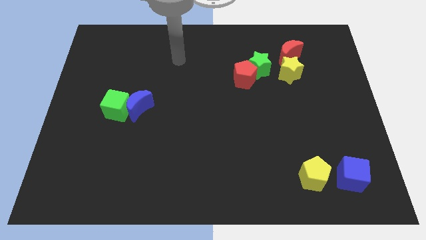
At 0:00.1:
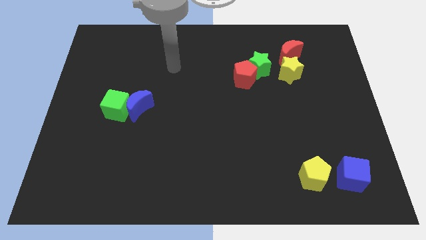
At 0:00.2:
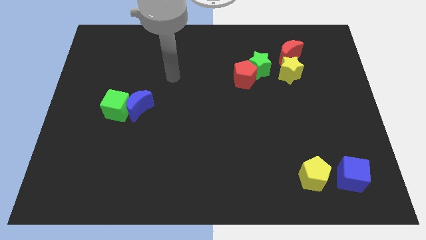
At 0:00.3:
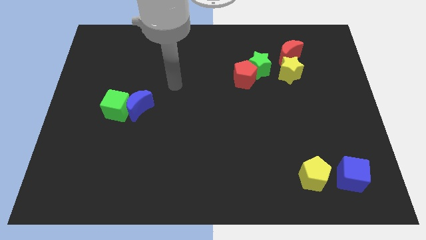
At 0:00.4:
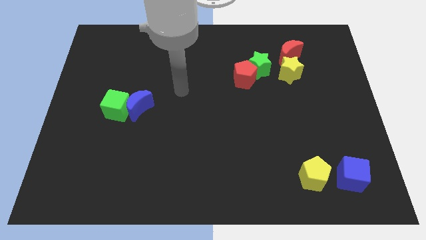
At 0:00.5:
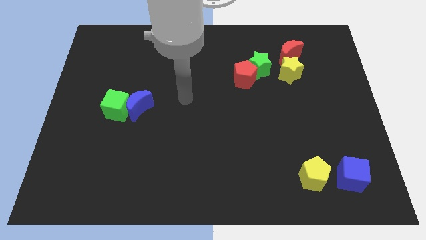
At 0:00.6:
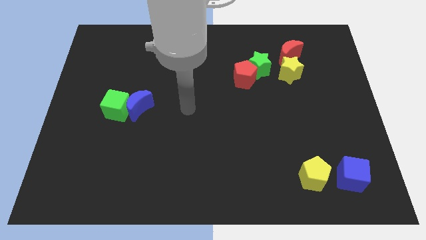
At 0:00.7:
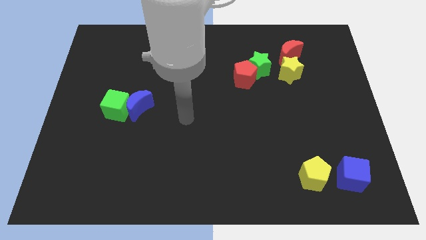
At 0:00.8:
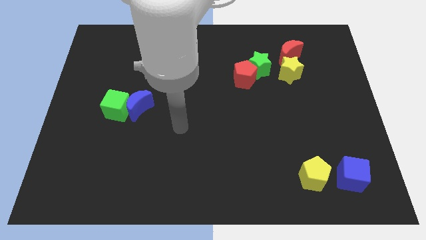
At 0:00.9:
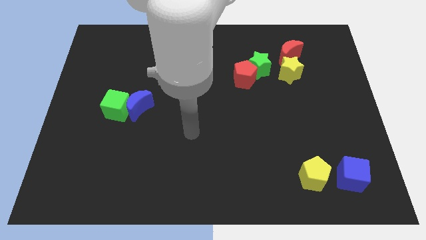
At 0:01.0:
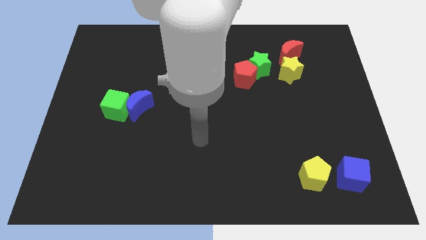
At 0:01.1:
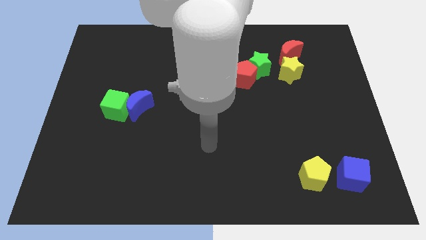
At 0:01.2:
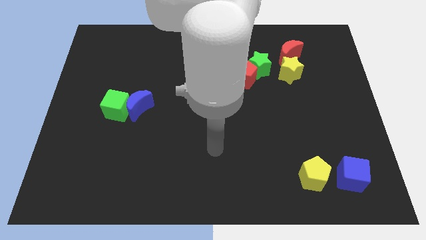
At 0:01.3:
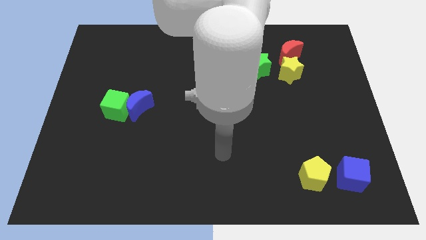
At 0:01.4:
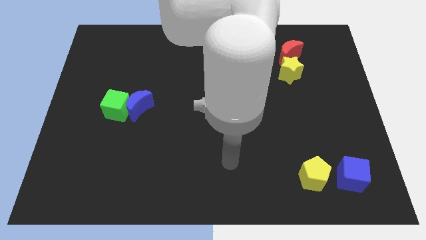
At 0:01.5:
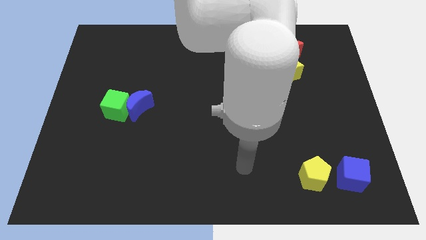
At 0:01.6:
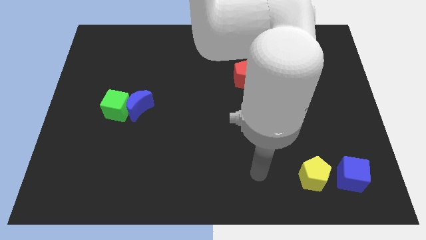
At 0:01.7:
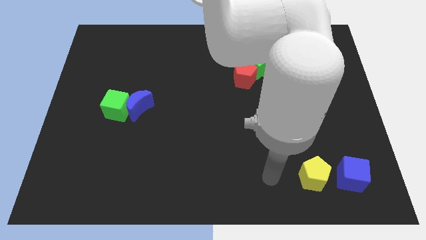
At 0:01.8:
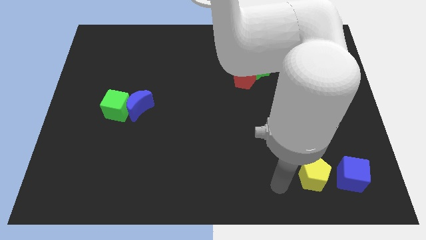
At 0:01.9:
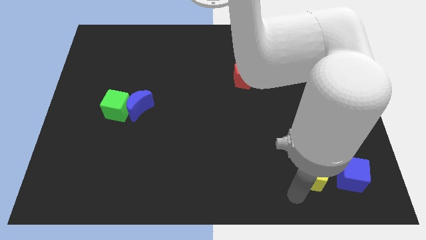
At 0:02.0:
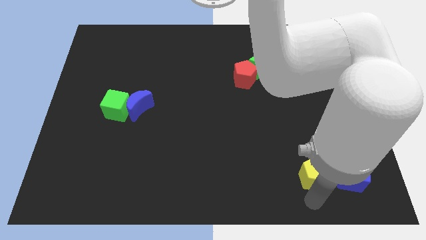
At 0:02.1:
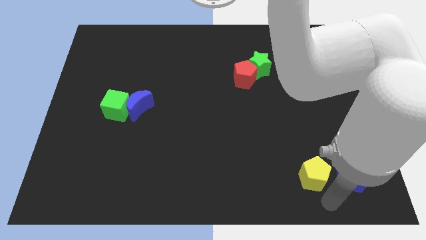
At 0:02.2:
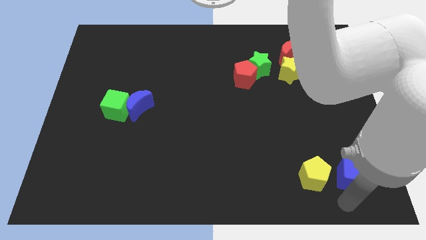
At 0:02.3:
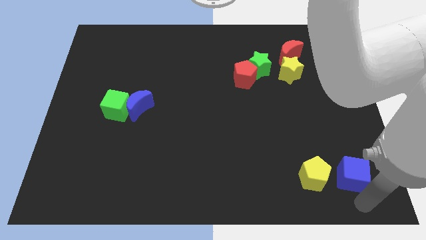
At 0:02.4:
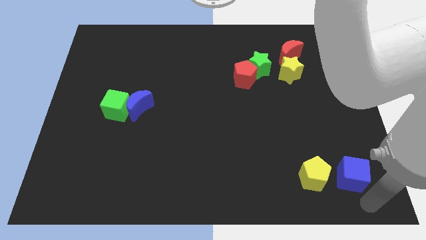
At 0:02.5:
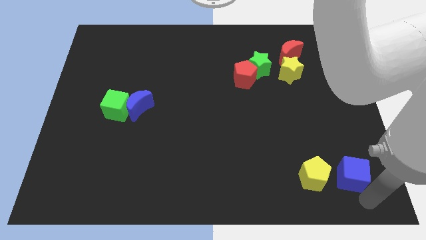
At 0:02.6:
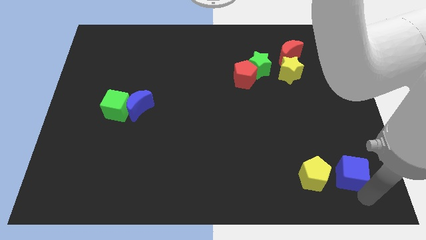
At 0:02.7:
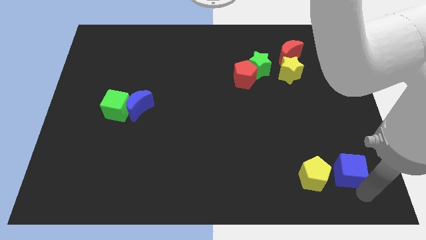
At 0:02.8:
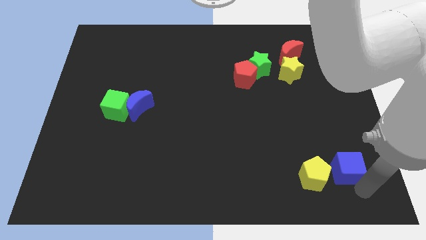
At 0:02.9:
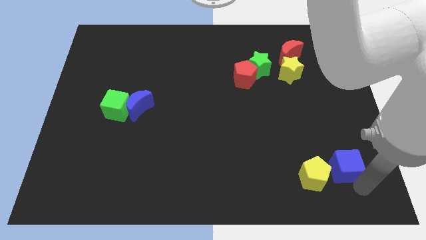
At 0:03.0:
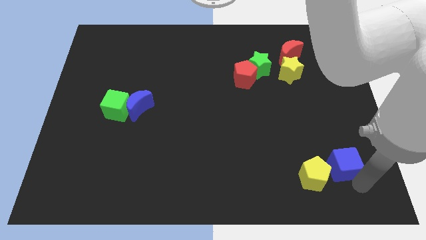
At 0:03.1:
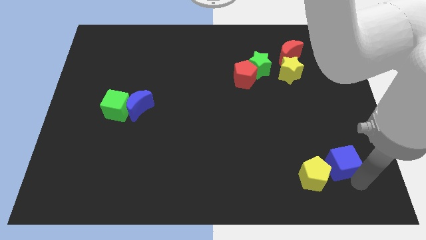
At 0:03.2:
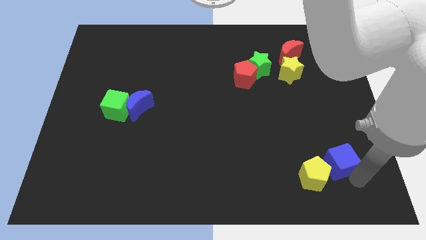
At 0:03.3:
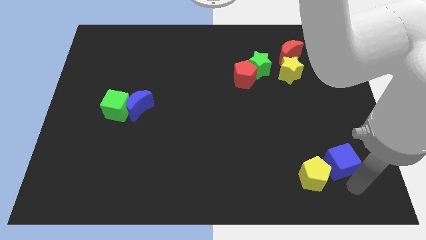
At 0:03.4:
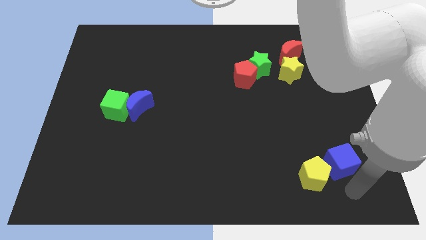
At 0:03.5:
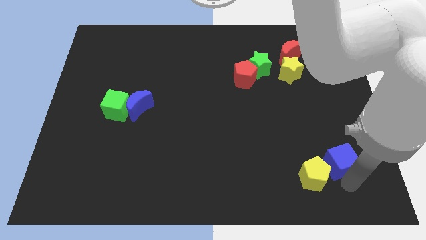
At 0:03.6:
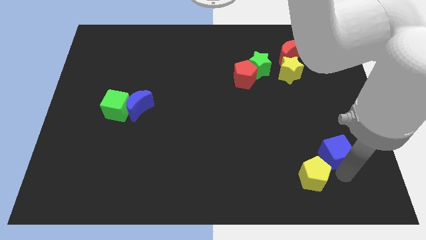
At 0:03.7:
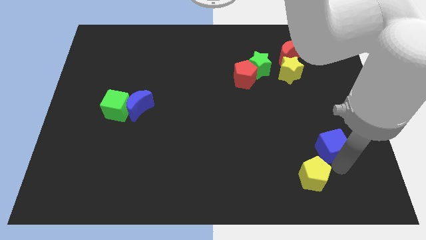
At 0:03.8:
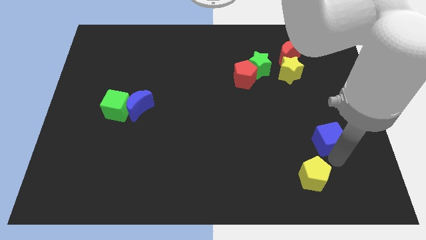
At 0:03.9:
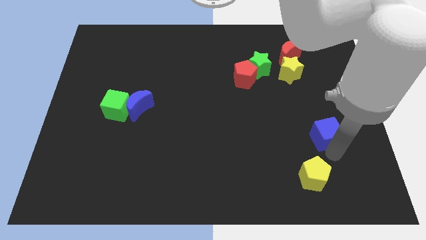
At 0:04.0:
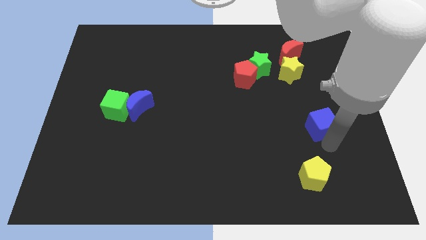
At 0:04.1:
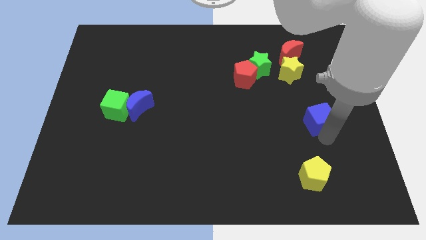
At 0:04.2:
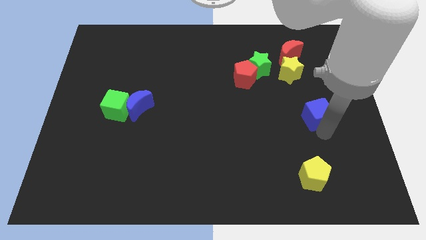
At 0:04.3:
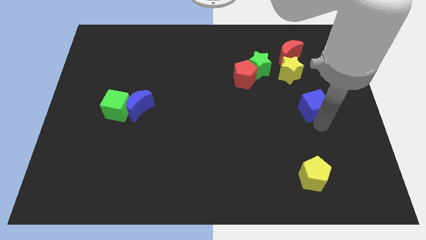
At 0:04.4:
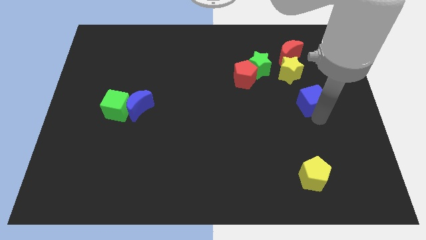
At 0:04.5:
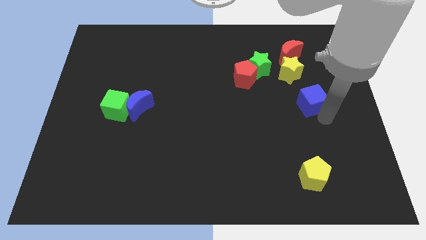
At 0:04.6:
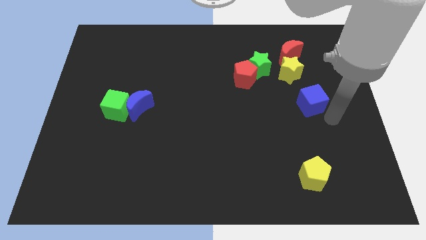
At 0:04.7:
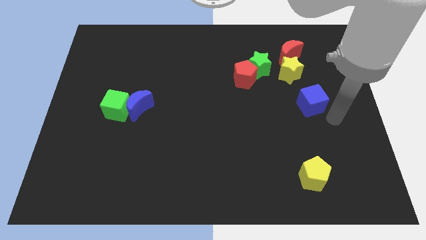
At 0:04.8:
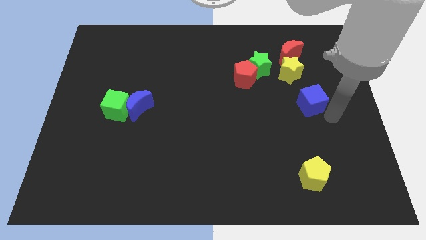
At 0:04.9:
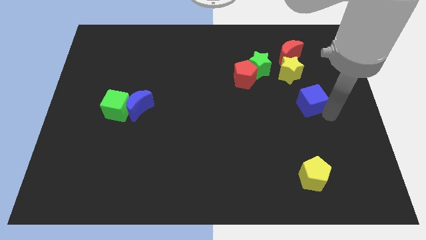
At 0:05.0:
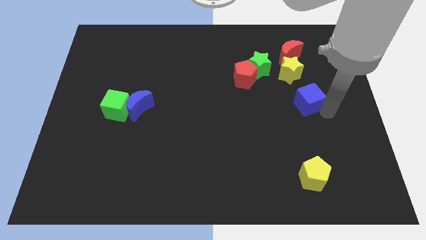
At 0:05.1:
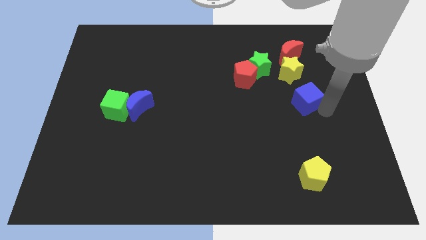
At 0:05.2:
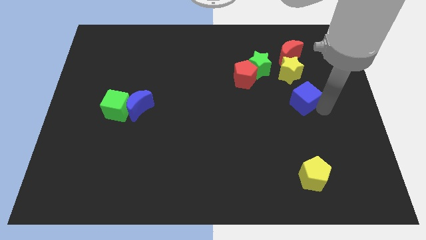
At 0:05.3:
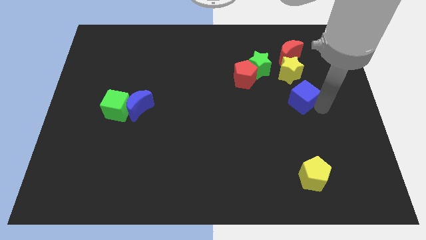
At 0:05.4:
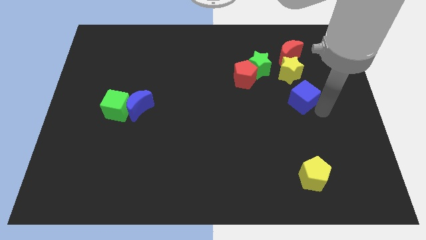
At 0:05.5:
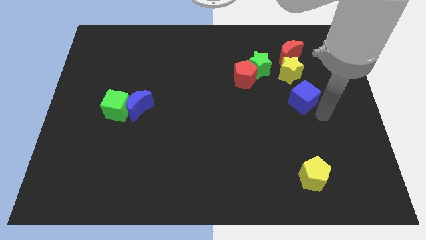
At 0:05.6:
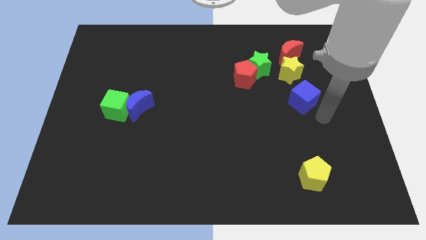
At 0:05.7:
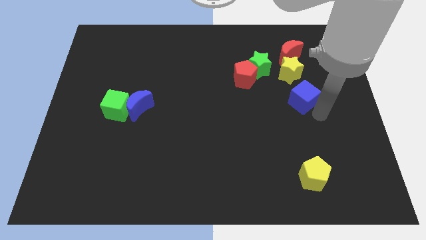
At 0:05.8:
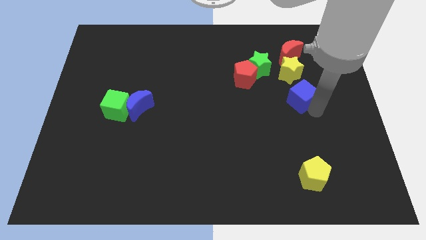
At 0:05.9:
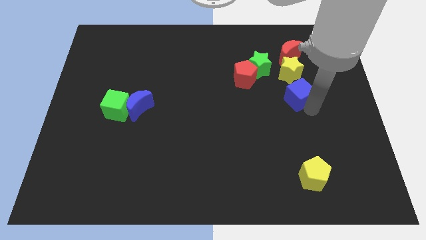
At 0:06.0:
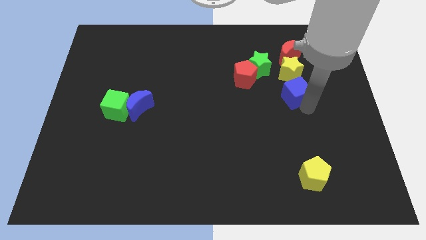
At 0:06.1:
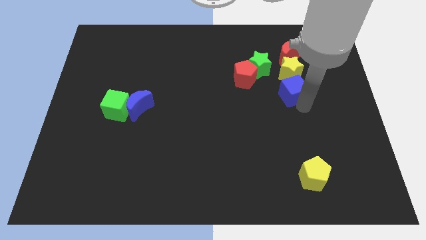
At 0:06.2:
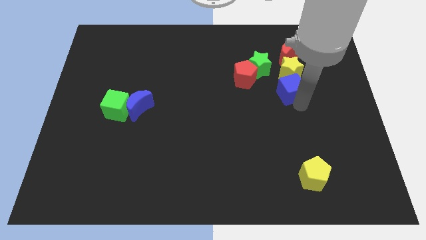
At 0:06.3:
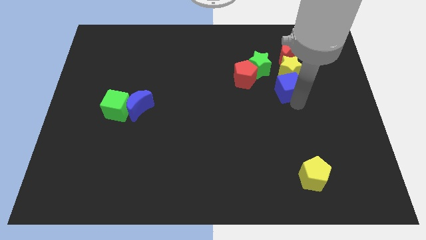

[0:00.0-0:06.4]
slide the blue cube to the yellow star

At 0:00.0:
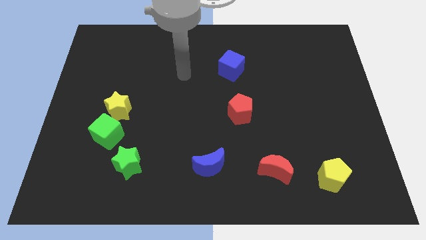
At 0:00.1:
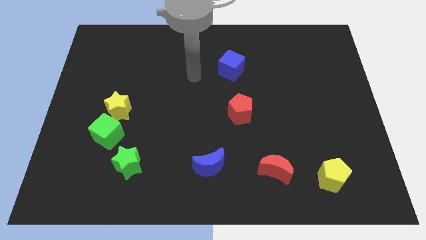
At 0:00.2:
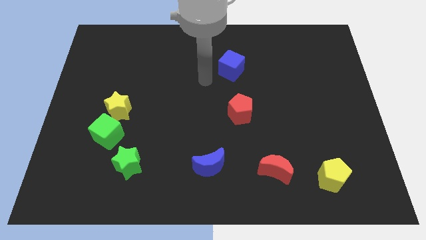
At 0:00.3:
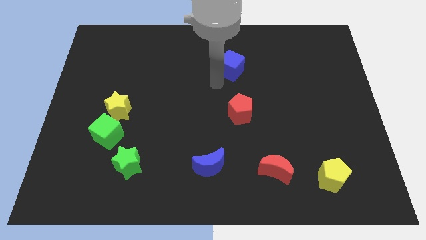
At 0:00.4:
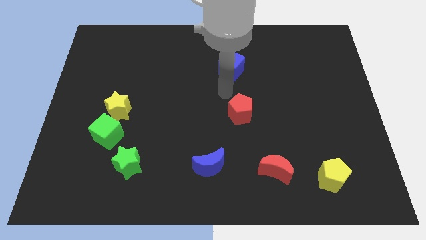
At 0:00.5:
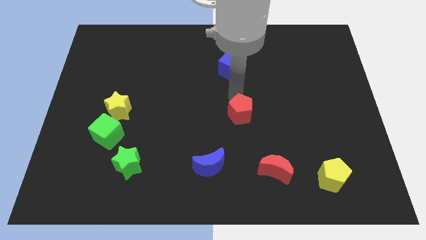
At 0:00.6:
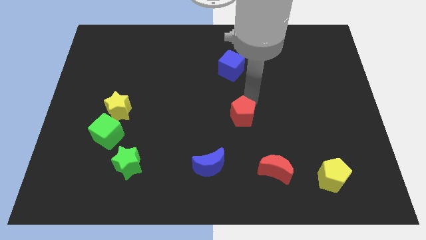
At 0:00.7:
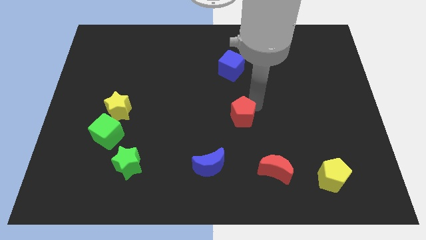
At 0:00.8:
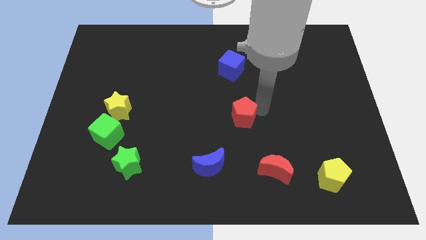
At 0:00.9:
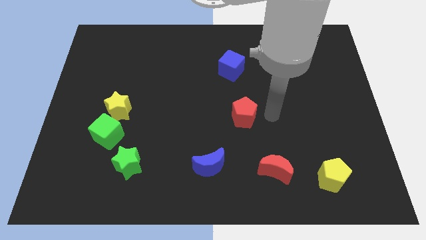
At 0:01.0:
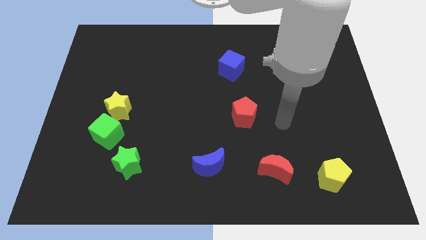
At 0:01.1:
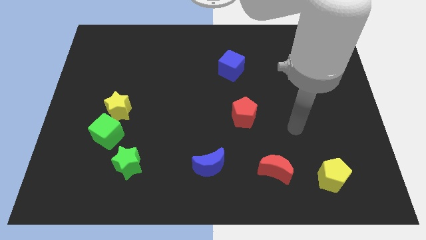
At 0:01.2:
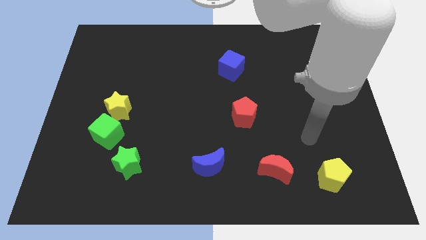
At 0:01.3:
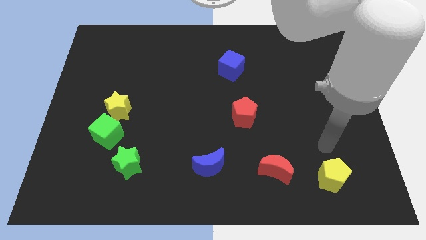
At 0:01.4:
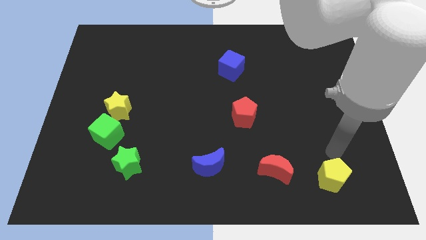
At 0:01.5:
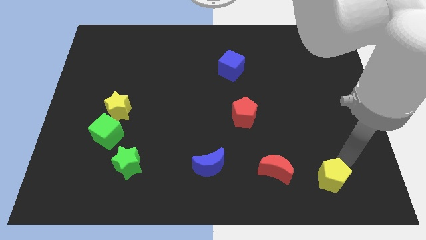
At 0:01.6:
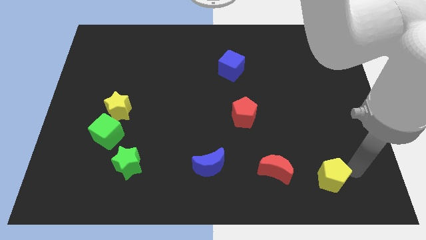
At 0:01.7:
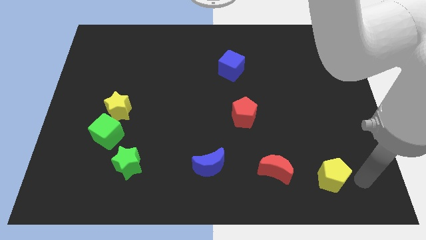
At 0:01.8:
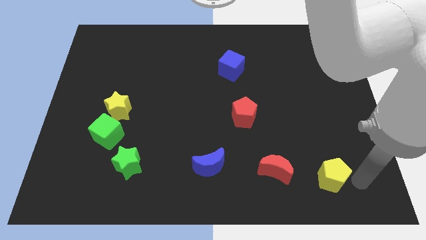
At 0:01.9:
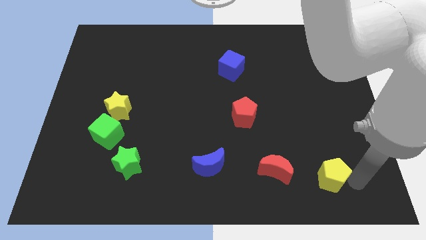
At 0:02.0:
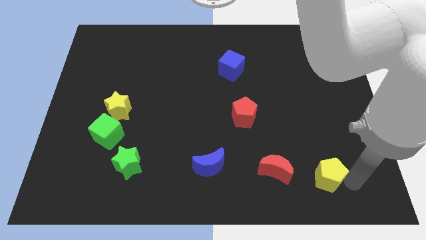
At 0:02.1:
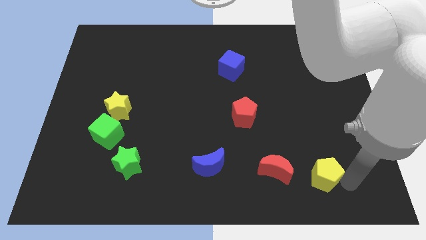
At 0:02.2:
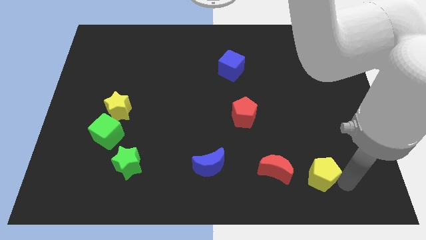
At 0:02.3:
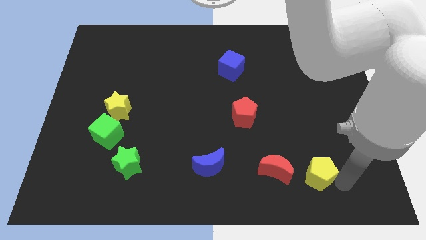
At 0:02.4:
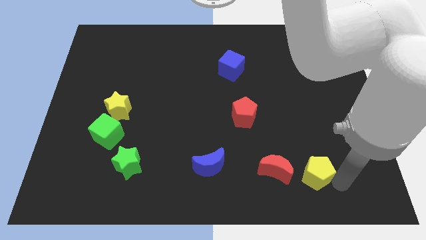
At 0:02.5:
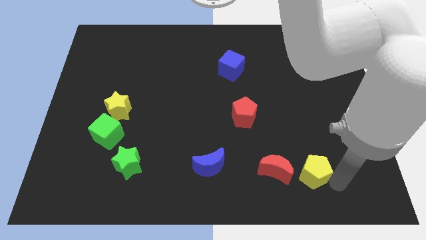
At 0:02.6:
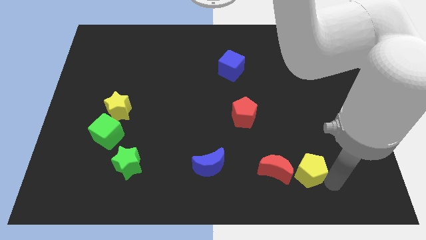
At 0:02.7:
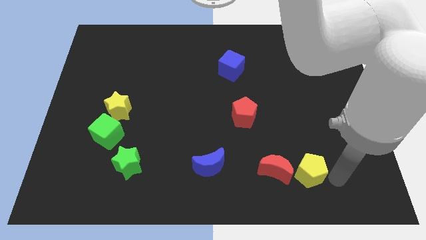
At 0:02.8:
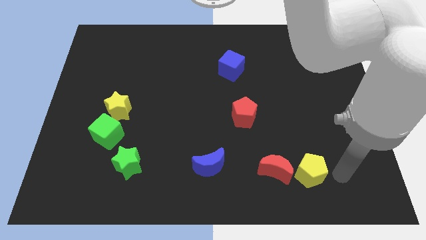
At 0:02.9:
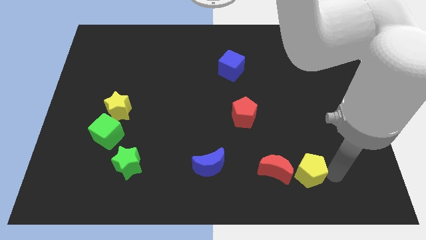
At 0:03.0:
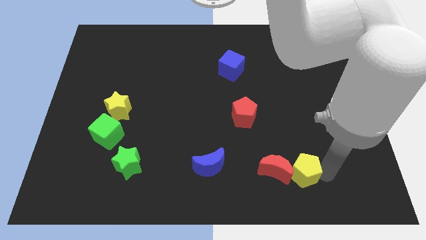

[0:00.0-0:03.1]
push the yellow pentagon towards the red moon
